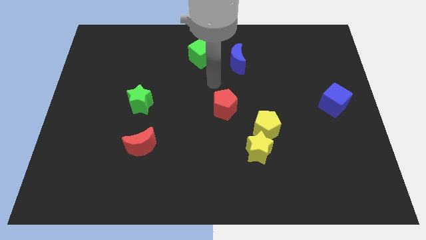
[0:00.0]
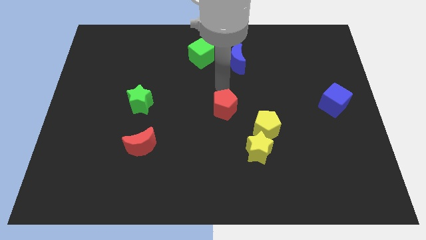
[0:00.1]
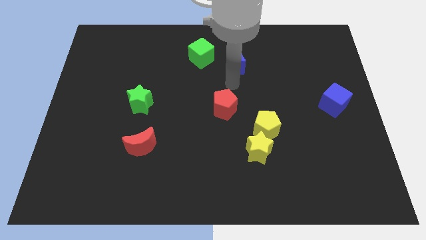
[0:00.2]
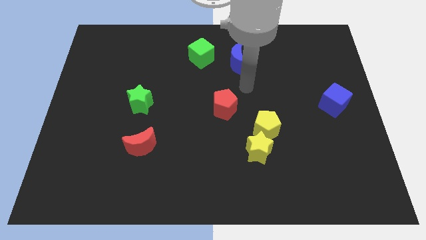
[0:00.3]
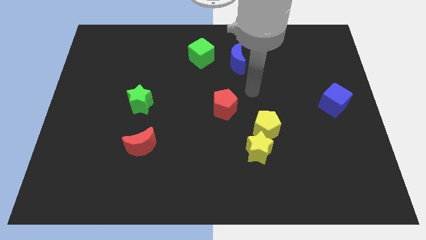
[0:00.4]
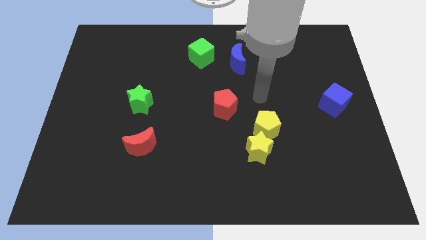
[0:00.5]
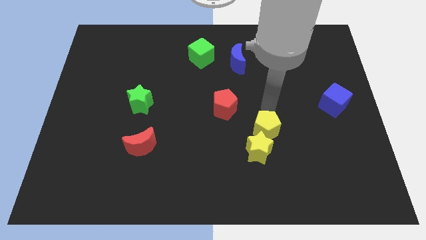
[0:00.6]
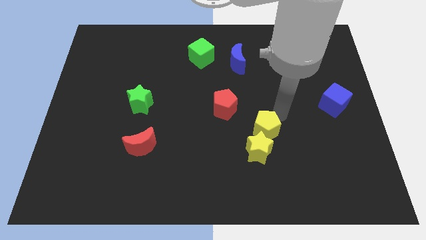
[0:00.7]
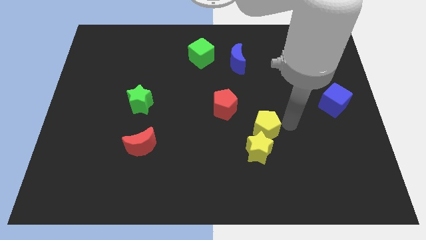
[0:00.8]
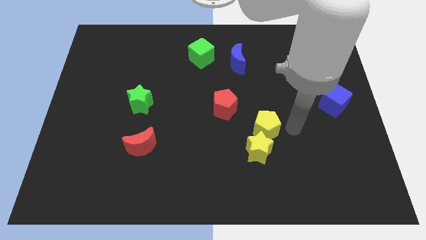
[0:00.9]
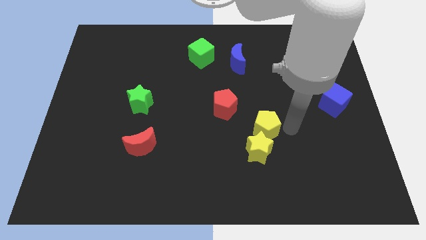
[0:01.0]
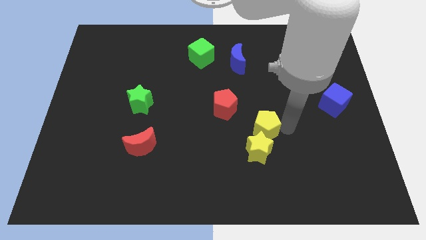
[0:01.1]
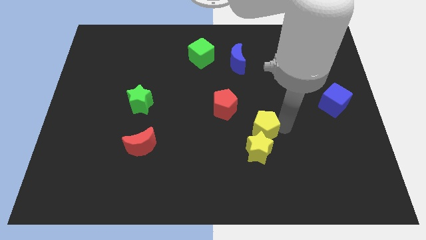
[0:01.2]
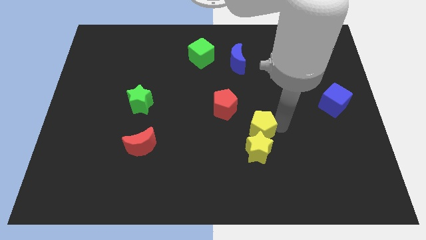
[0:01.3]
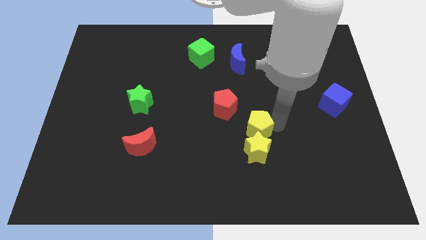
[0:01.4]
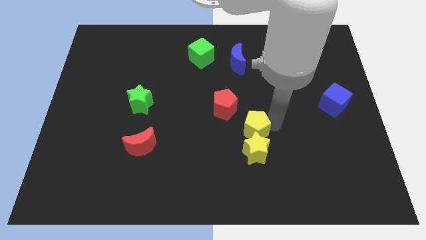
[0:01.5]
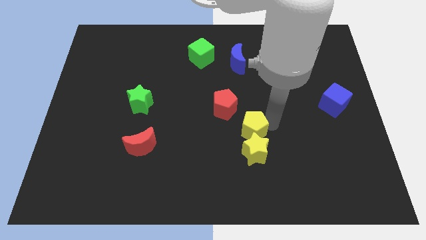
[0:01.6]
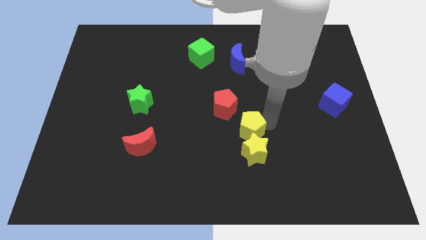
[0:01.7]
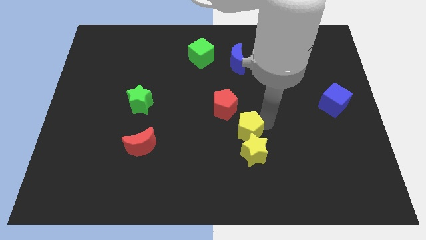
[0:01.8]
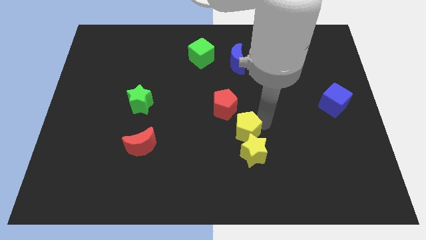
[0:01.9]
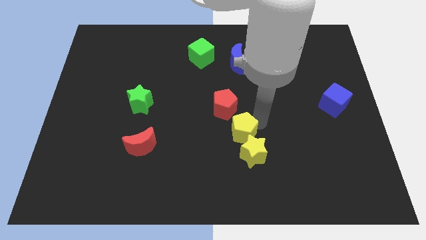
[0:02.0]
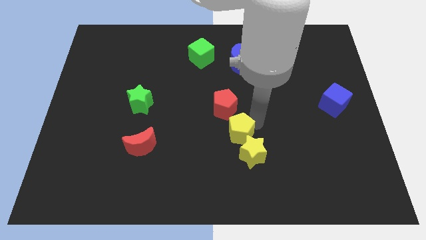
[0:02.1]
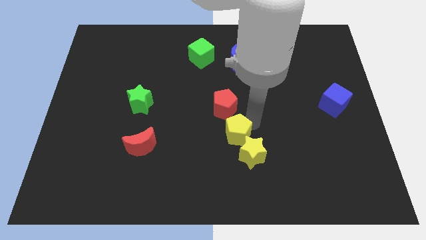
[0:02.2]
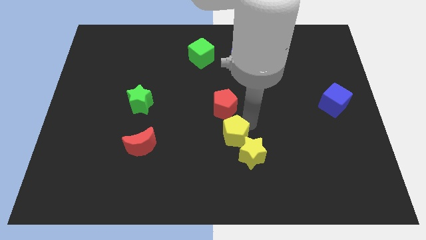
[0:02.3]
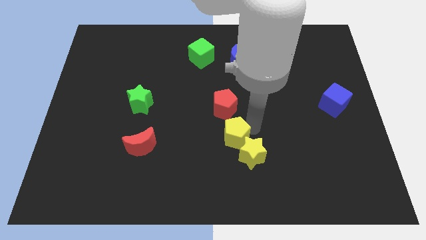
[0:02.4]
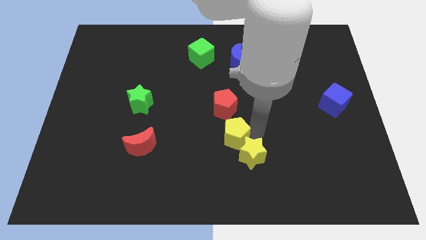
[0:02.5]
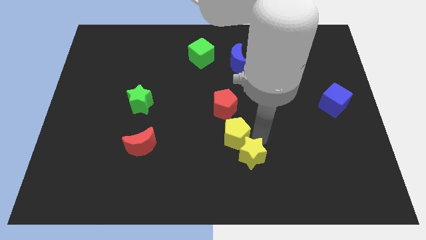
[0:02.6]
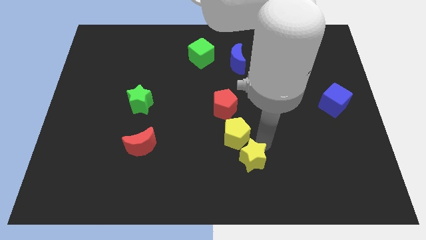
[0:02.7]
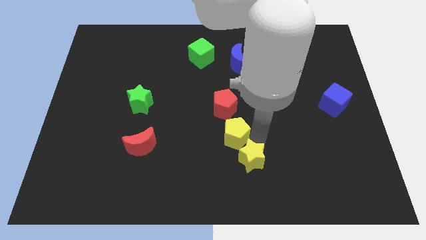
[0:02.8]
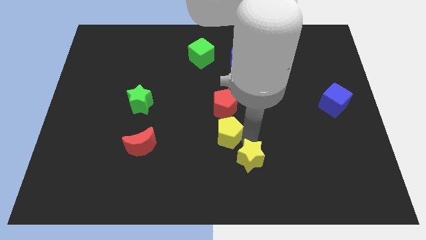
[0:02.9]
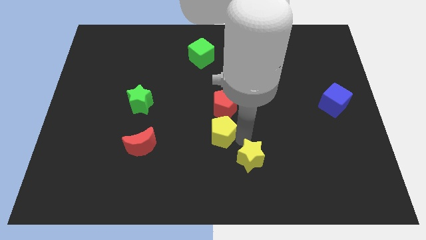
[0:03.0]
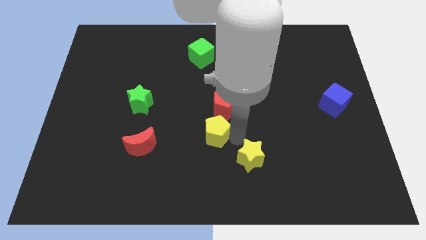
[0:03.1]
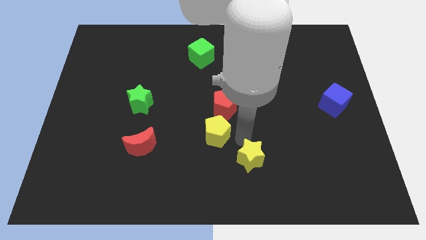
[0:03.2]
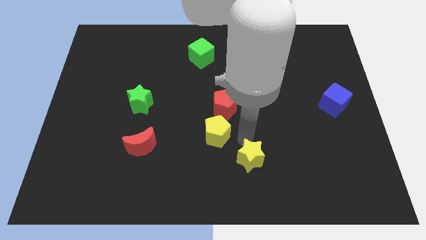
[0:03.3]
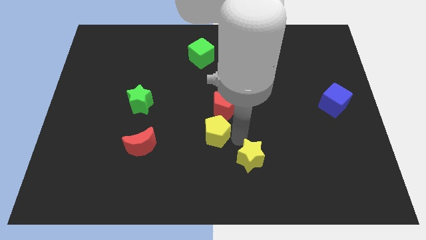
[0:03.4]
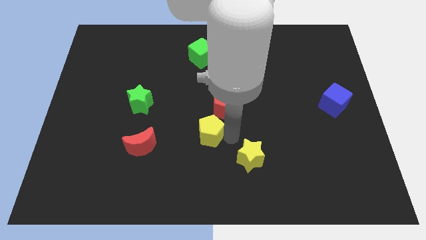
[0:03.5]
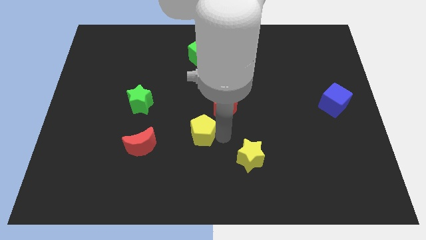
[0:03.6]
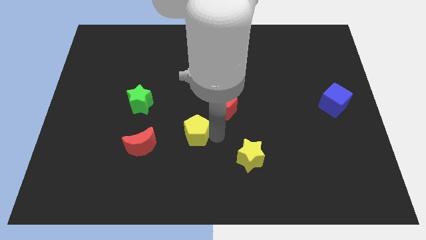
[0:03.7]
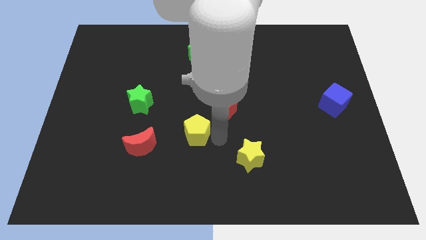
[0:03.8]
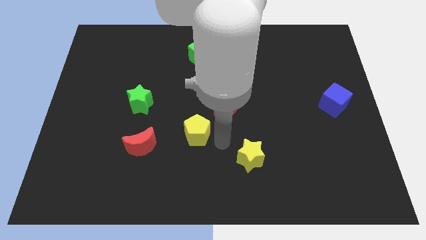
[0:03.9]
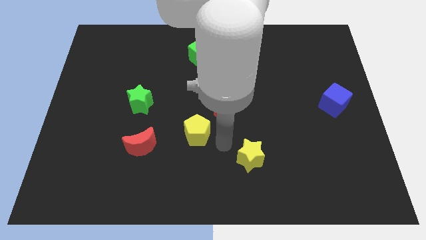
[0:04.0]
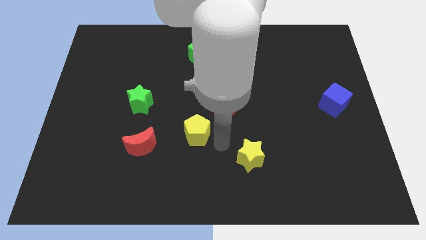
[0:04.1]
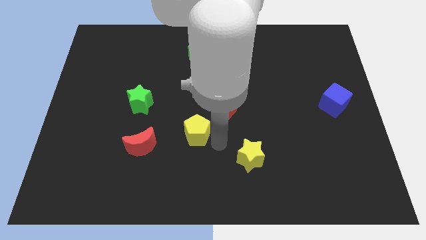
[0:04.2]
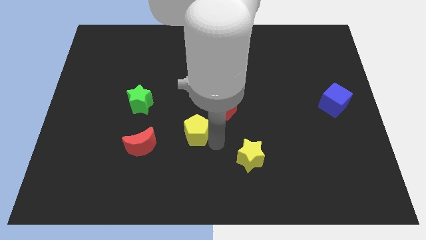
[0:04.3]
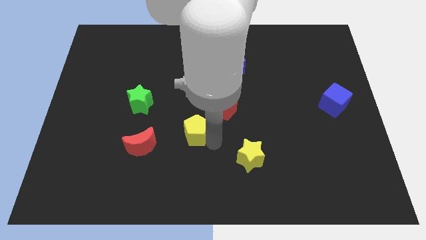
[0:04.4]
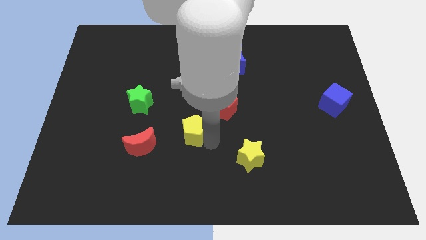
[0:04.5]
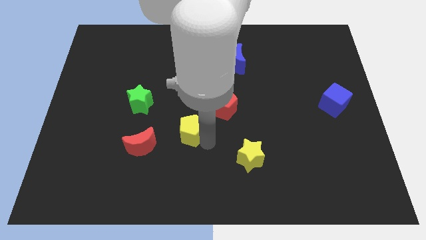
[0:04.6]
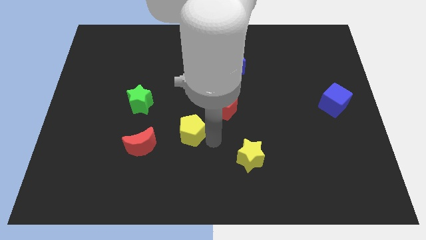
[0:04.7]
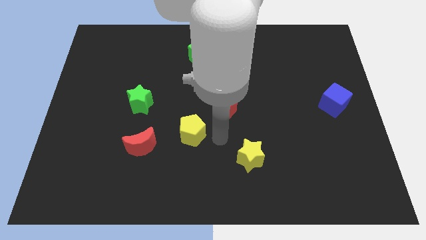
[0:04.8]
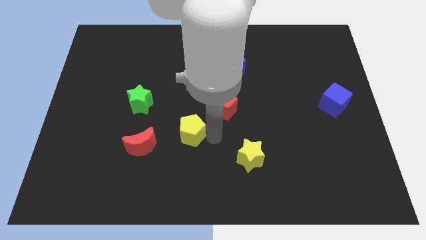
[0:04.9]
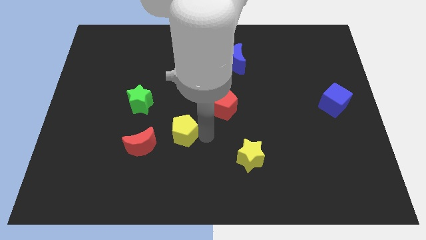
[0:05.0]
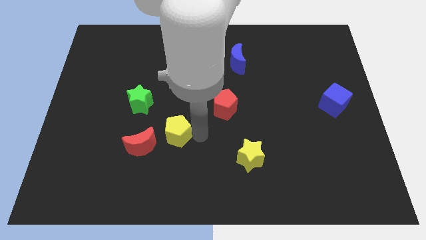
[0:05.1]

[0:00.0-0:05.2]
slide the yellow pentagon left

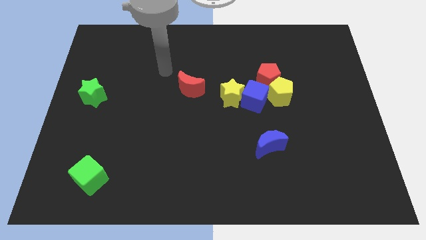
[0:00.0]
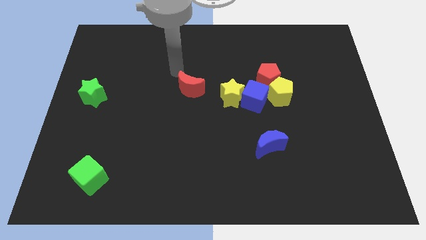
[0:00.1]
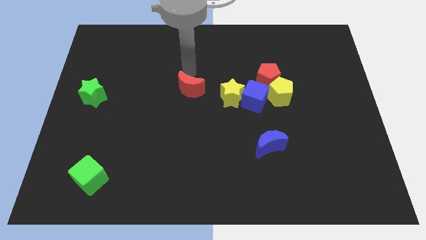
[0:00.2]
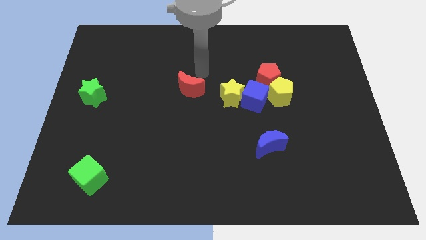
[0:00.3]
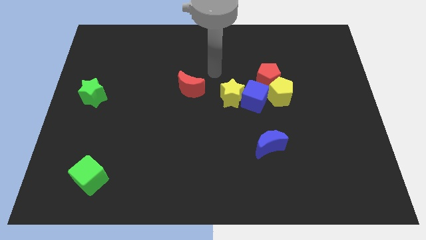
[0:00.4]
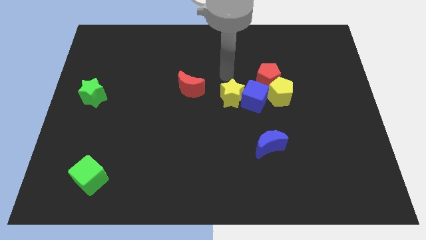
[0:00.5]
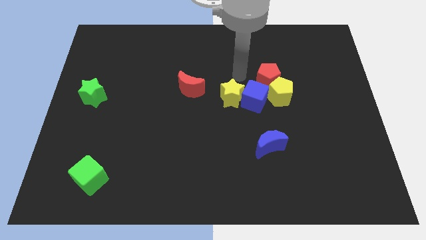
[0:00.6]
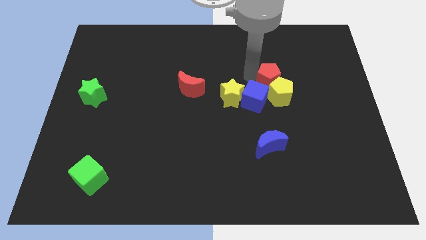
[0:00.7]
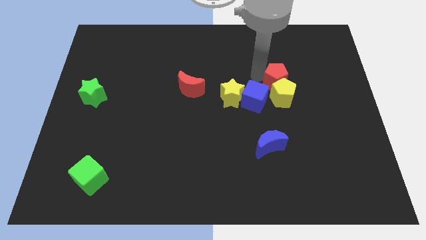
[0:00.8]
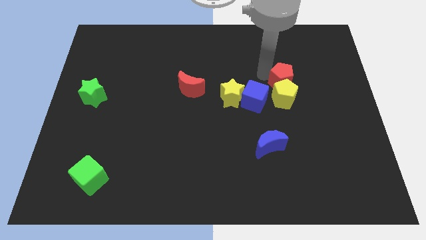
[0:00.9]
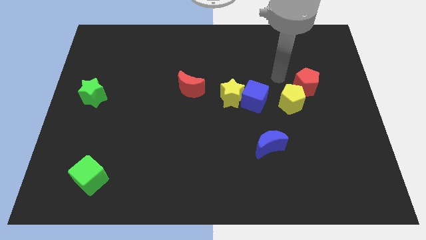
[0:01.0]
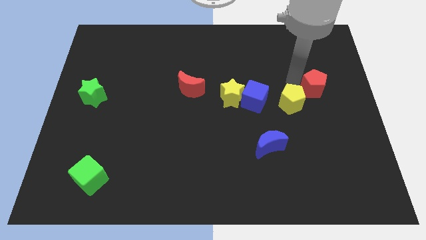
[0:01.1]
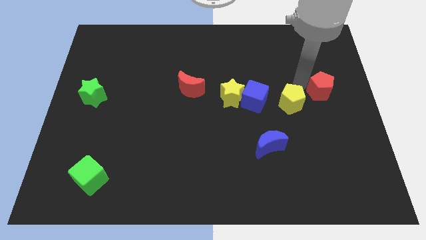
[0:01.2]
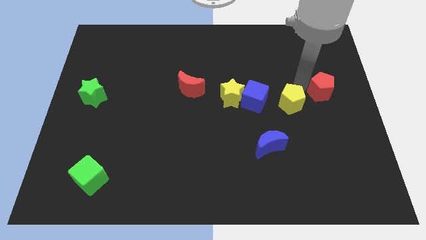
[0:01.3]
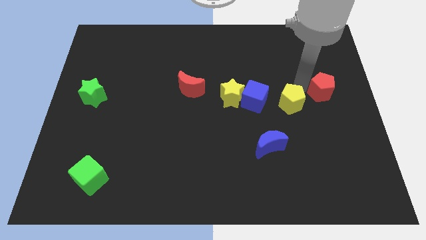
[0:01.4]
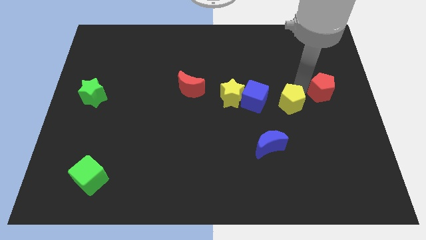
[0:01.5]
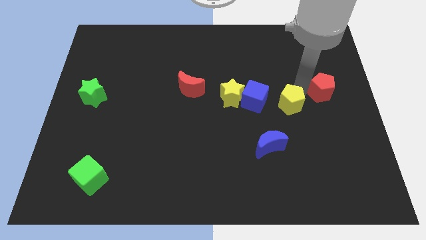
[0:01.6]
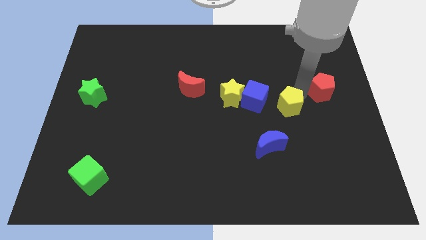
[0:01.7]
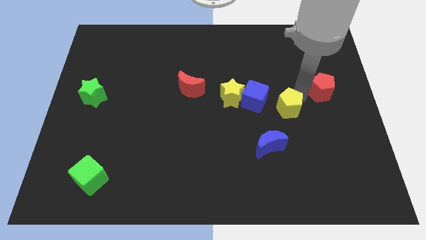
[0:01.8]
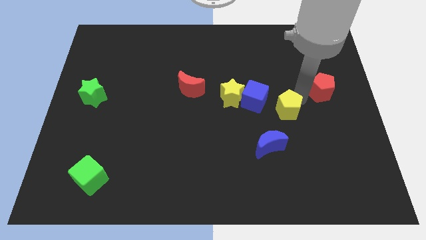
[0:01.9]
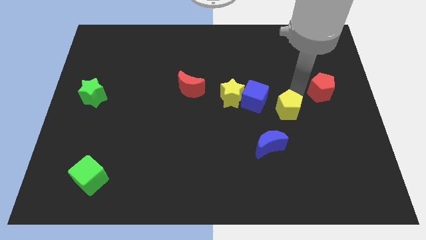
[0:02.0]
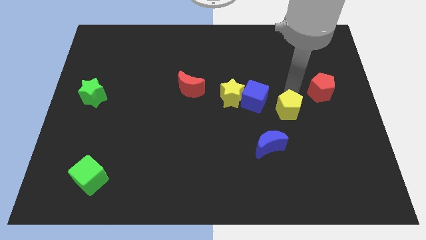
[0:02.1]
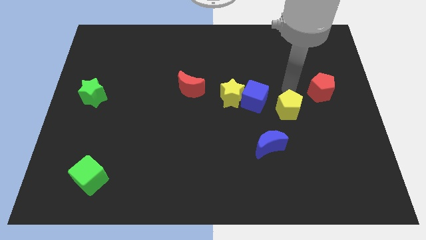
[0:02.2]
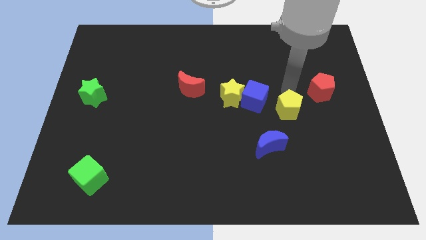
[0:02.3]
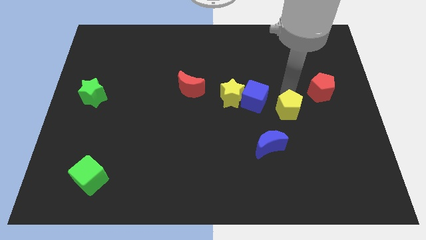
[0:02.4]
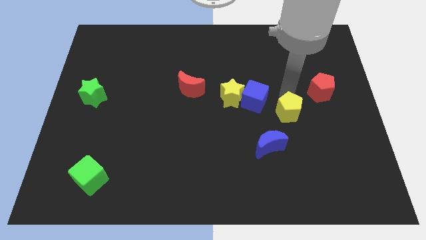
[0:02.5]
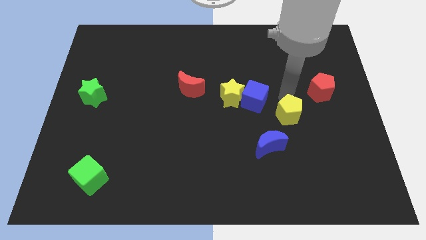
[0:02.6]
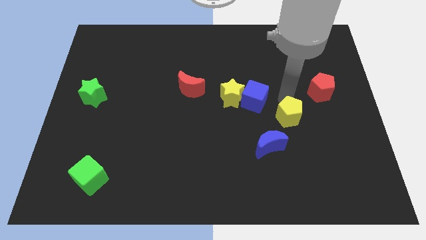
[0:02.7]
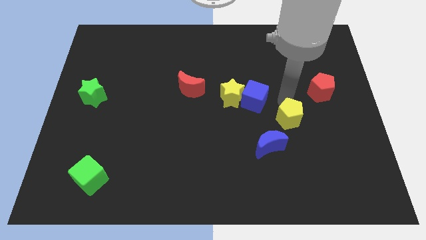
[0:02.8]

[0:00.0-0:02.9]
slightly move the yellow pentagon downwards
